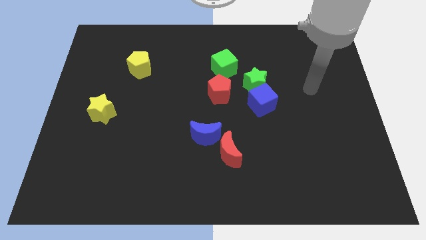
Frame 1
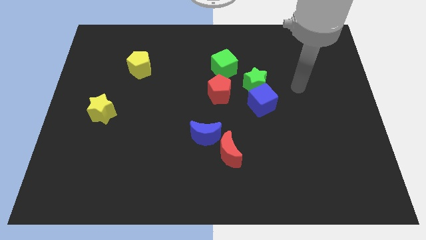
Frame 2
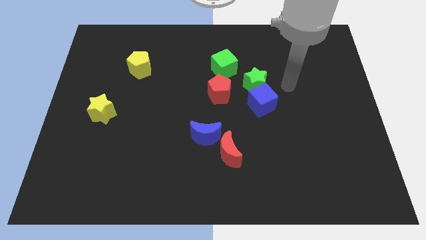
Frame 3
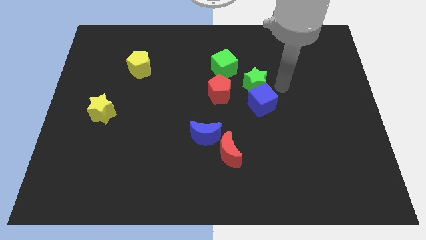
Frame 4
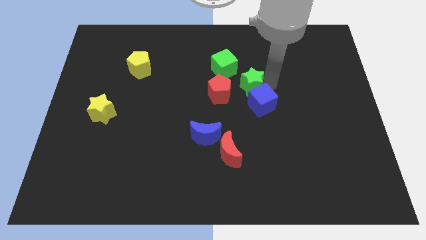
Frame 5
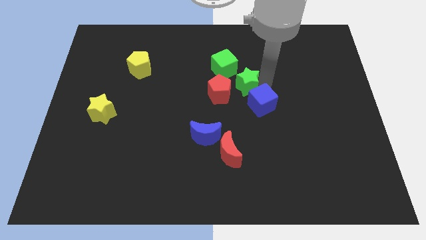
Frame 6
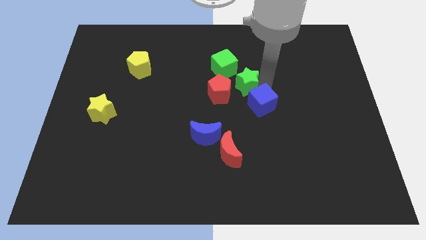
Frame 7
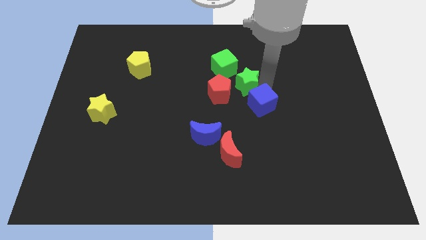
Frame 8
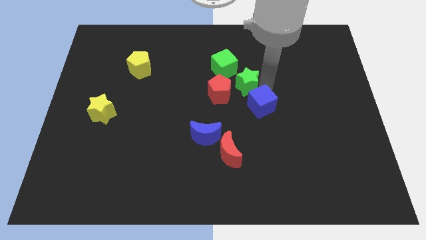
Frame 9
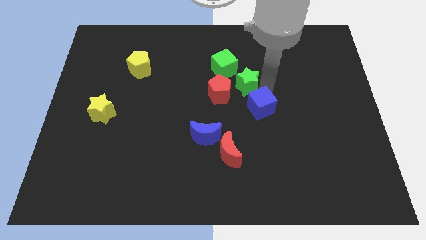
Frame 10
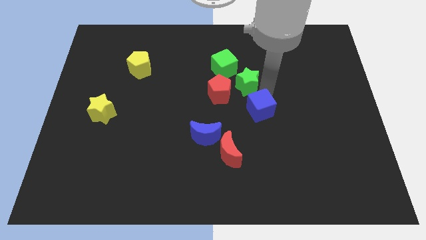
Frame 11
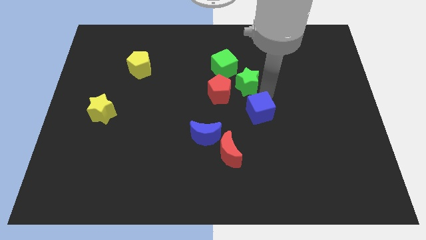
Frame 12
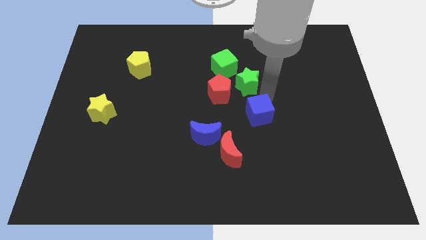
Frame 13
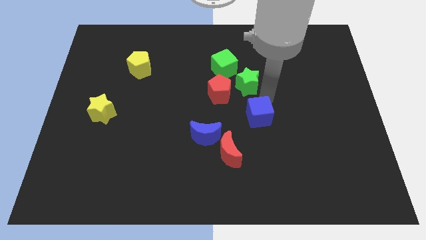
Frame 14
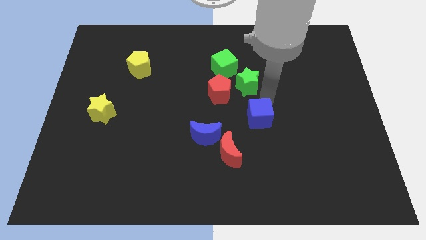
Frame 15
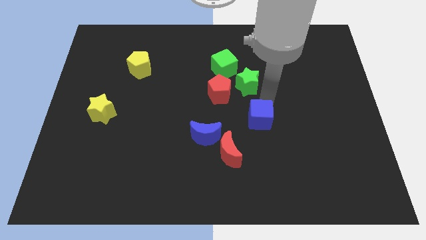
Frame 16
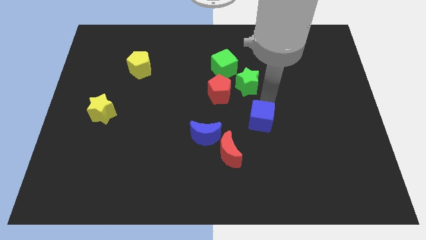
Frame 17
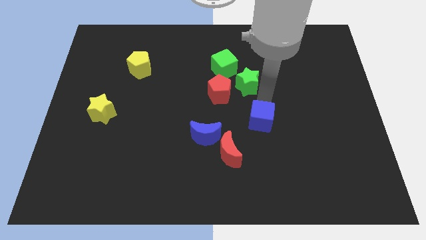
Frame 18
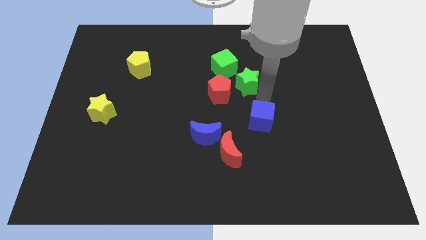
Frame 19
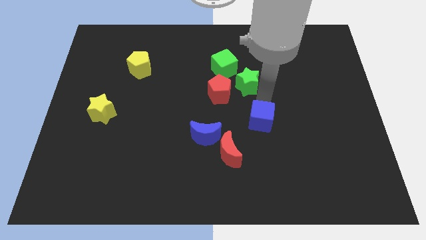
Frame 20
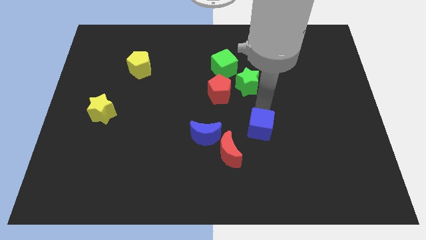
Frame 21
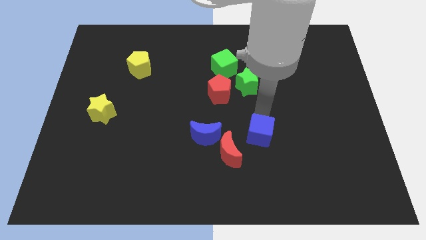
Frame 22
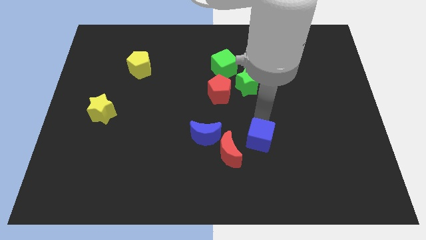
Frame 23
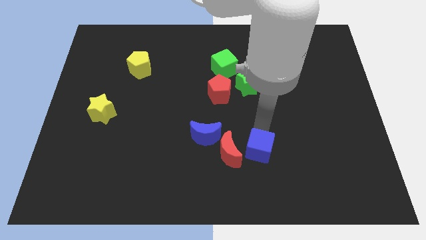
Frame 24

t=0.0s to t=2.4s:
slightly slide the blue cube diagonally downwards and left

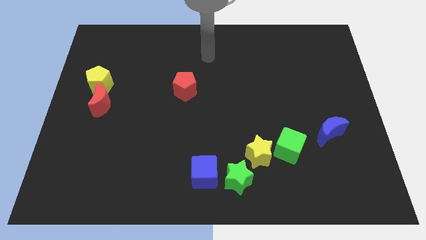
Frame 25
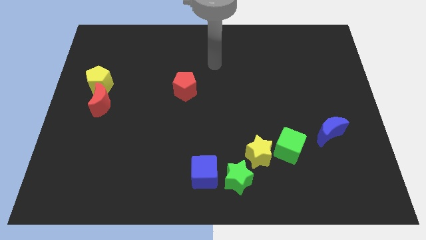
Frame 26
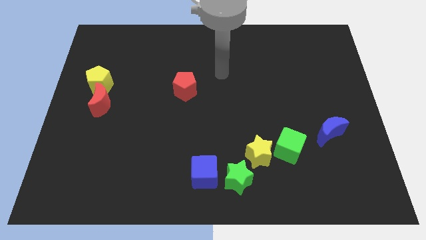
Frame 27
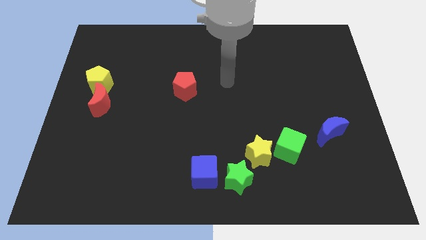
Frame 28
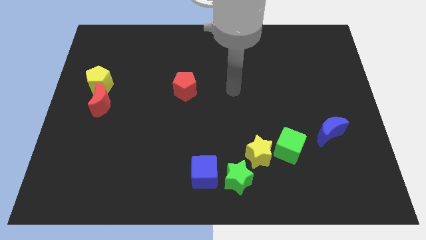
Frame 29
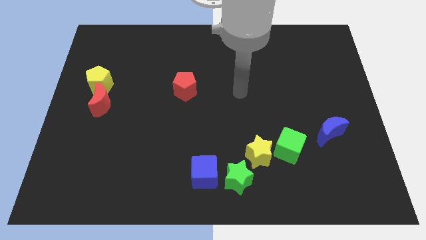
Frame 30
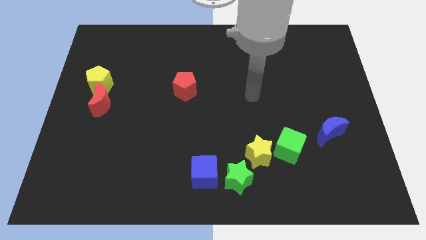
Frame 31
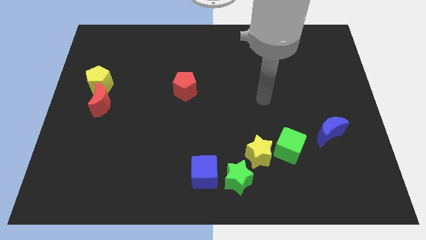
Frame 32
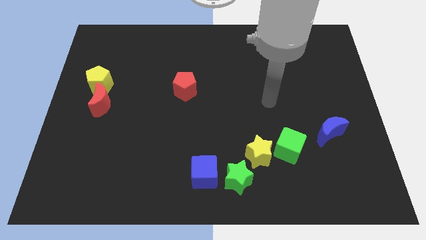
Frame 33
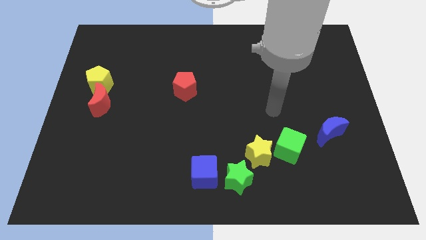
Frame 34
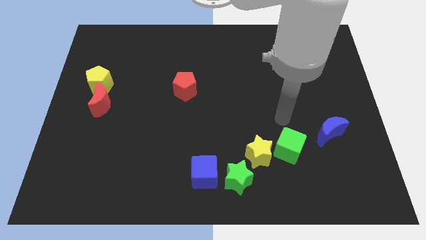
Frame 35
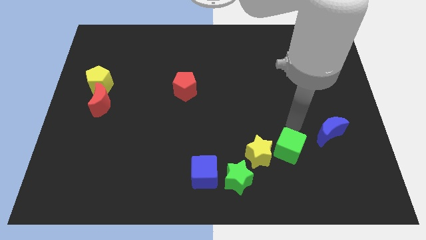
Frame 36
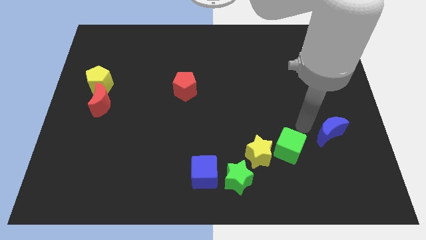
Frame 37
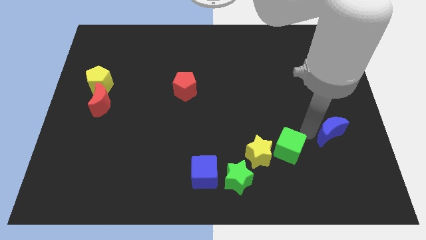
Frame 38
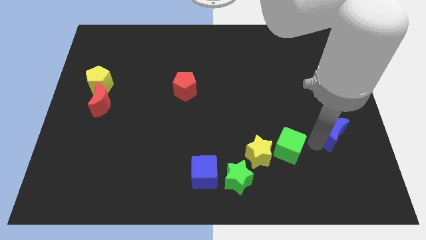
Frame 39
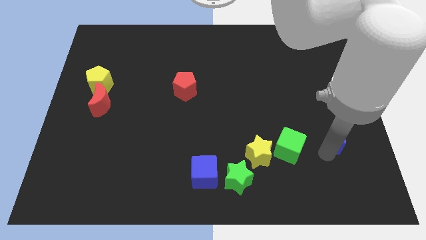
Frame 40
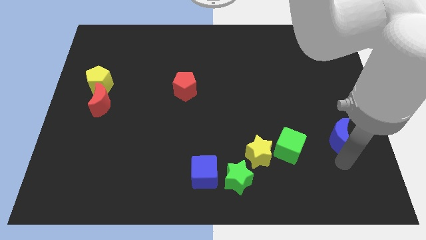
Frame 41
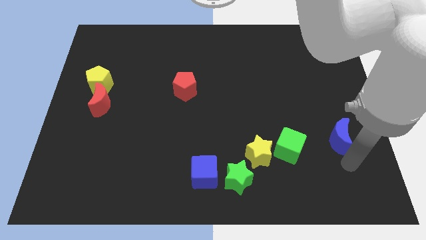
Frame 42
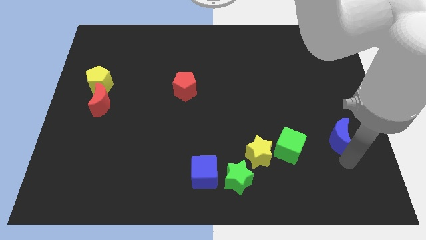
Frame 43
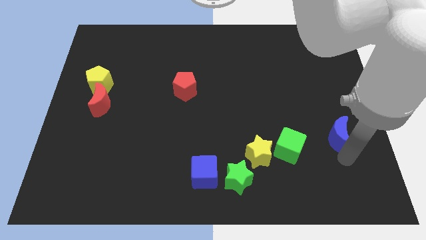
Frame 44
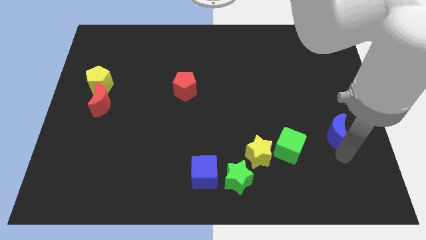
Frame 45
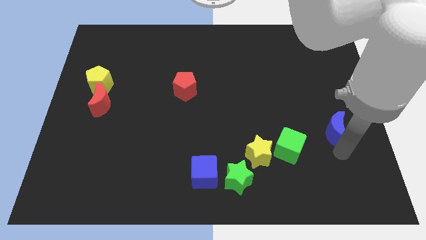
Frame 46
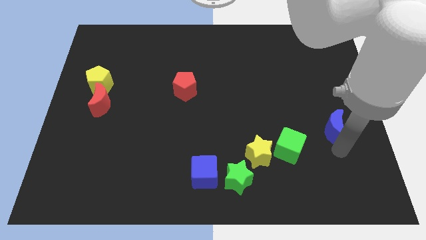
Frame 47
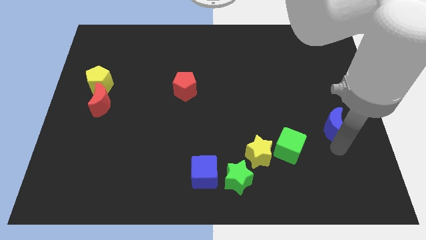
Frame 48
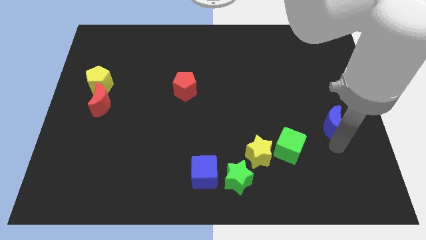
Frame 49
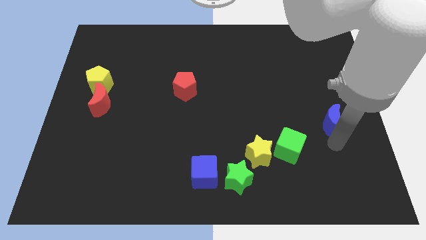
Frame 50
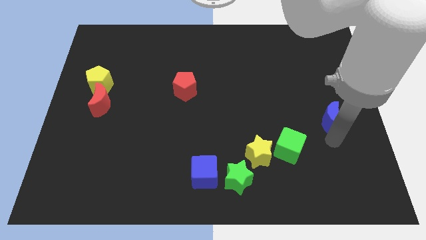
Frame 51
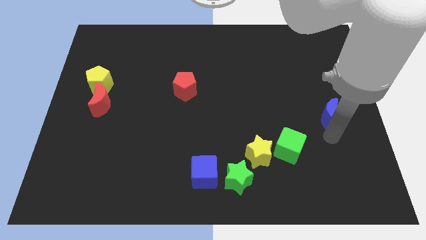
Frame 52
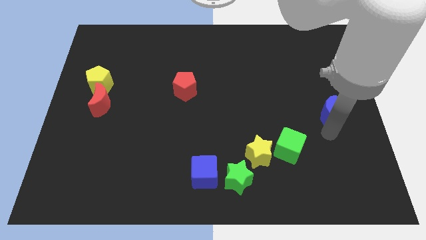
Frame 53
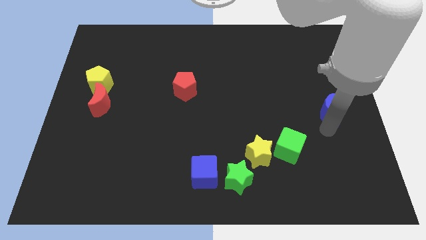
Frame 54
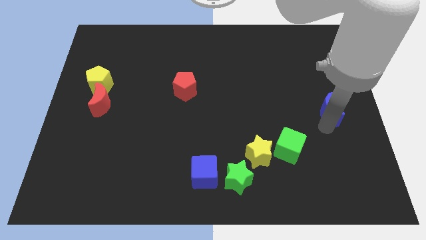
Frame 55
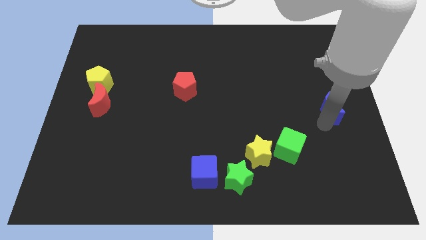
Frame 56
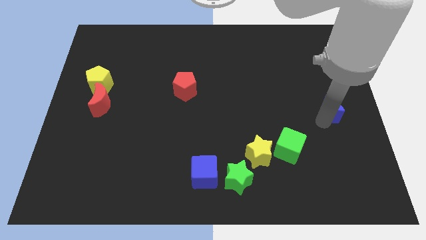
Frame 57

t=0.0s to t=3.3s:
slightly move the blue moon upwards

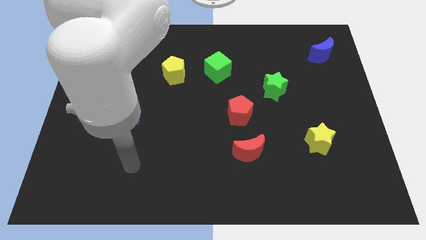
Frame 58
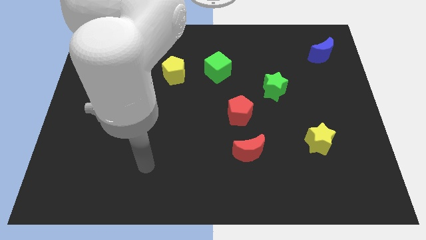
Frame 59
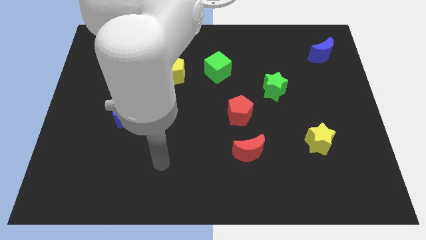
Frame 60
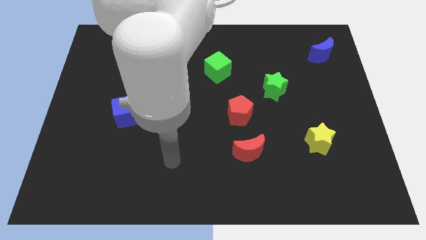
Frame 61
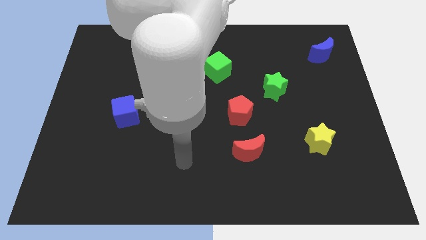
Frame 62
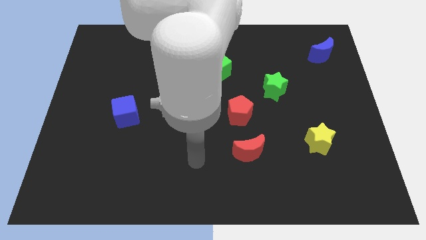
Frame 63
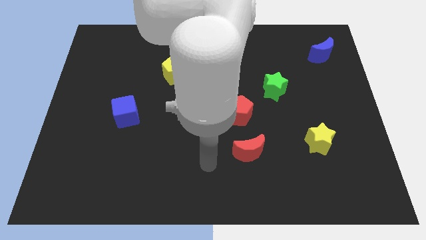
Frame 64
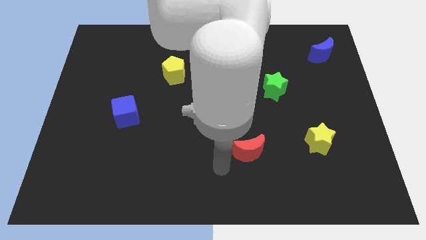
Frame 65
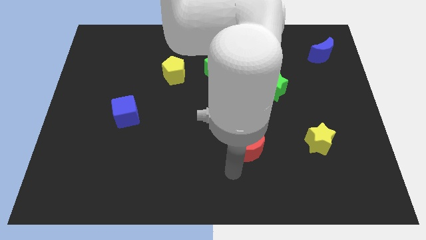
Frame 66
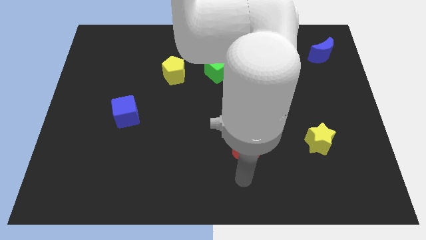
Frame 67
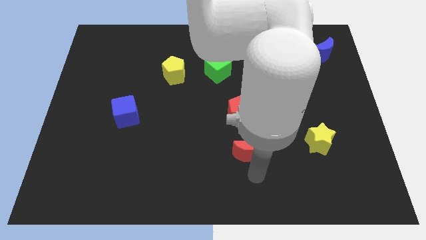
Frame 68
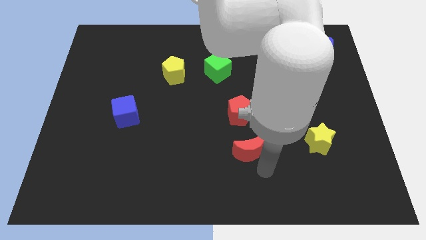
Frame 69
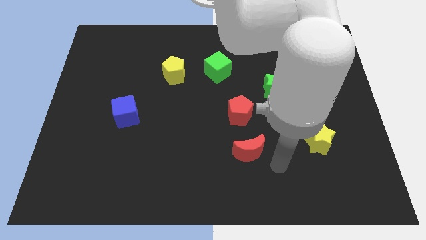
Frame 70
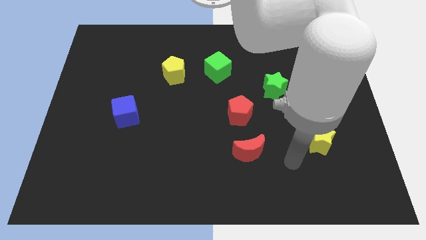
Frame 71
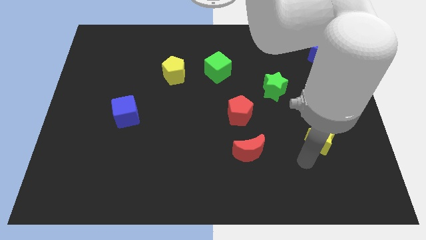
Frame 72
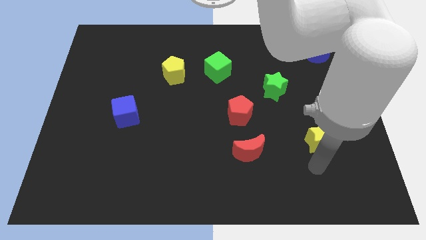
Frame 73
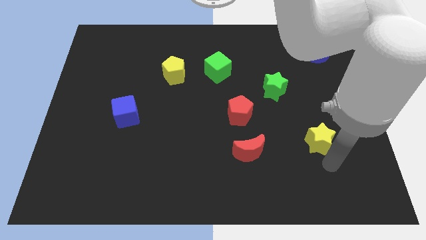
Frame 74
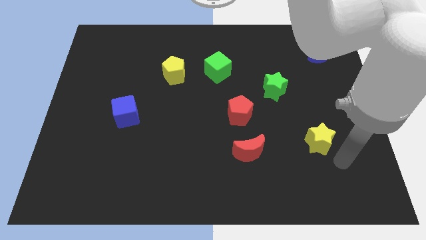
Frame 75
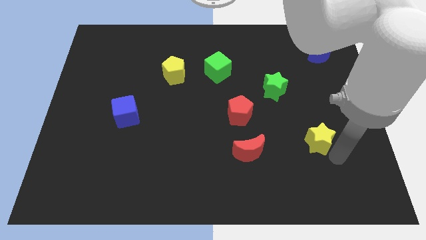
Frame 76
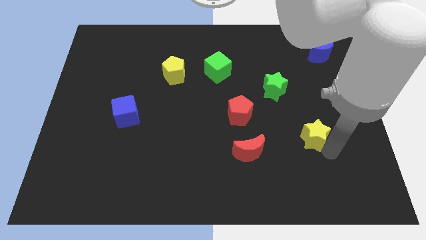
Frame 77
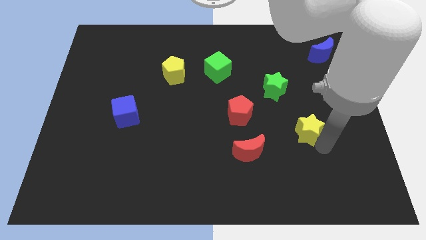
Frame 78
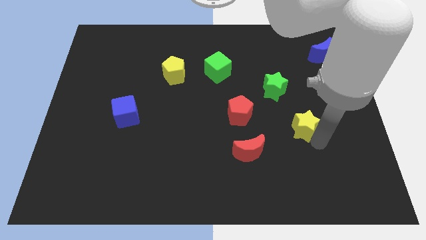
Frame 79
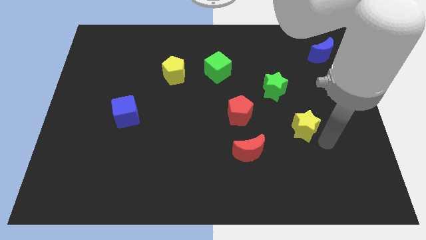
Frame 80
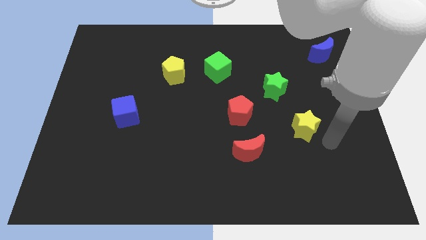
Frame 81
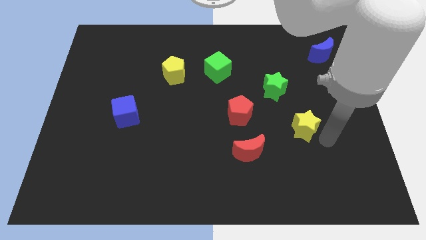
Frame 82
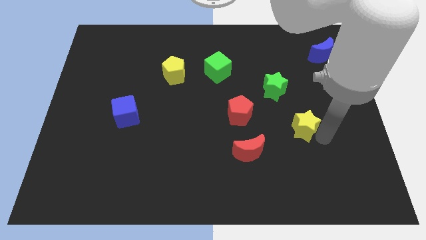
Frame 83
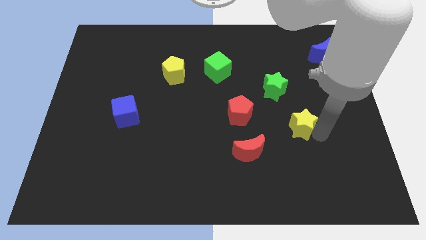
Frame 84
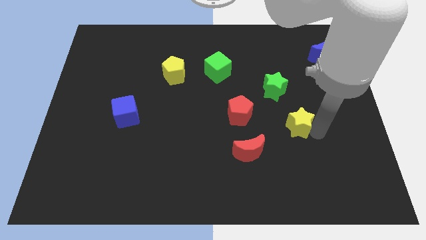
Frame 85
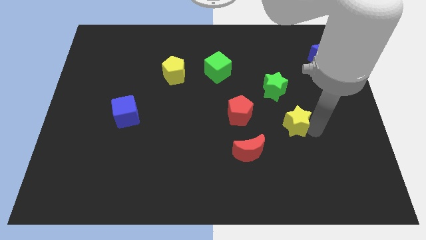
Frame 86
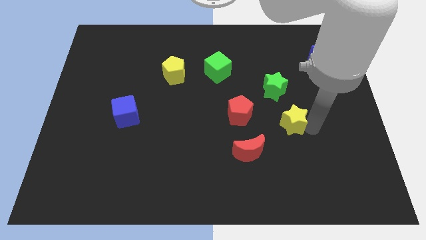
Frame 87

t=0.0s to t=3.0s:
slightly slide the yellow star up and then left

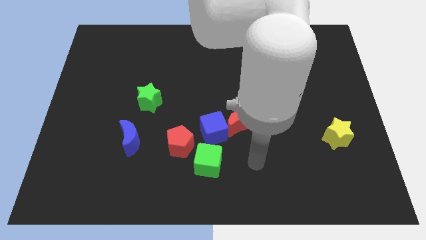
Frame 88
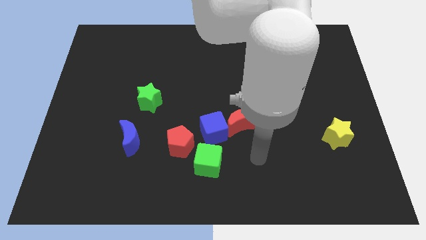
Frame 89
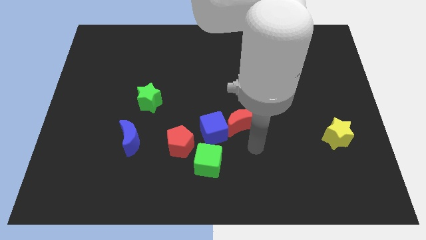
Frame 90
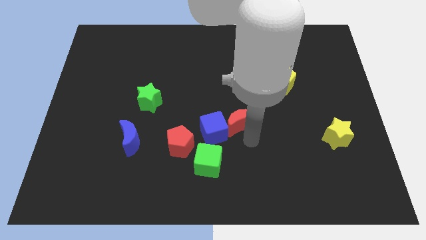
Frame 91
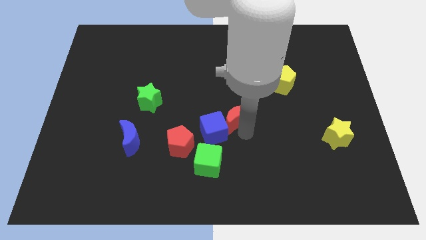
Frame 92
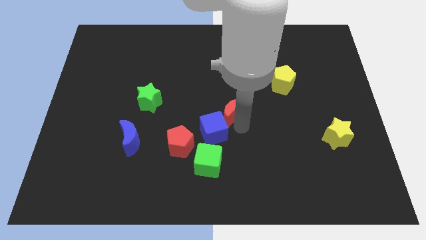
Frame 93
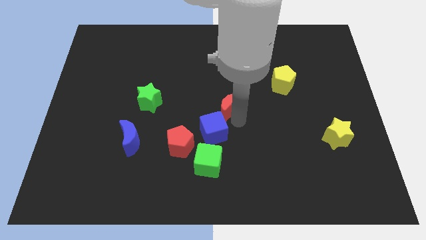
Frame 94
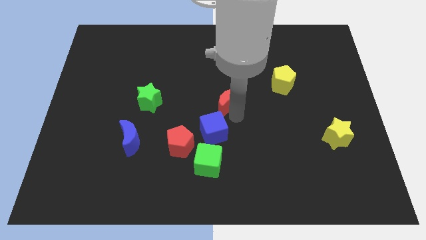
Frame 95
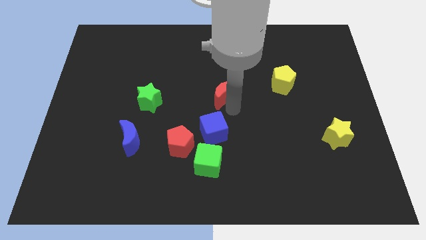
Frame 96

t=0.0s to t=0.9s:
slightly push the red moon diagonally upwards and to the left
